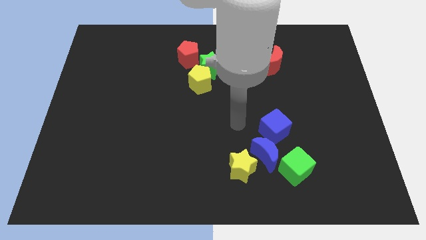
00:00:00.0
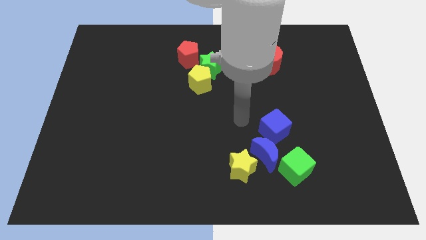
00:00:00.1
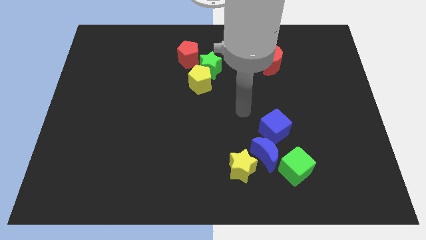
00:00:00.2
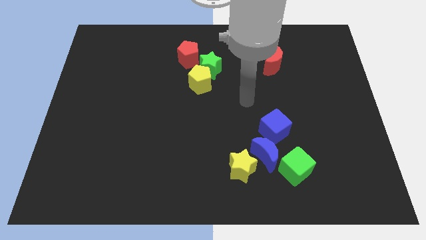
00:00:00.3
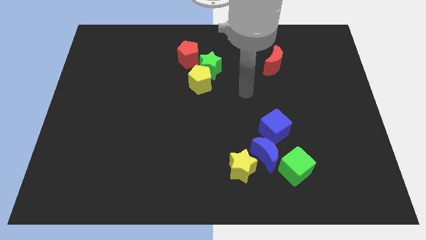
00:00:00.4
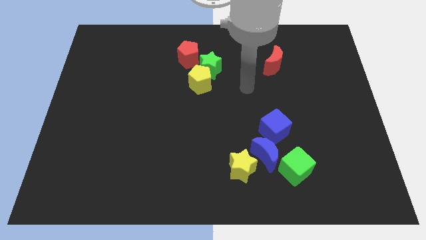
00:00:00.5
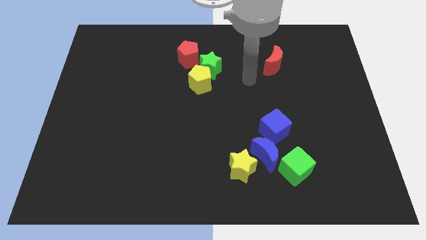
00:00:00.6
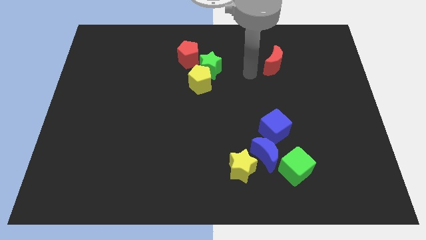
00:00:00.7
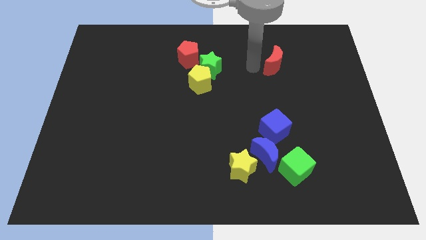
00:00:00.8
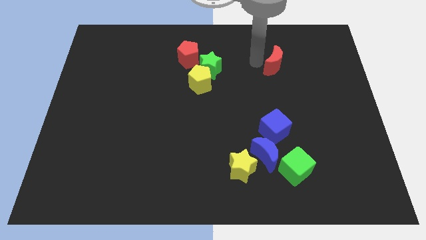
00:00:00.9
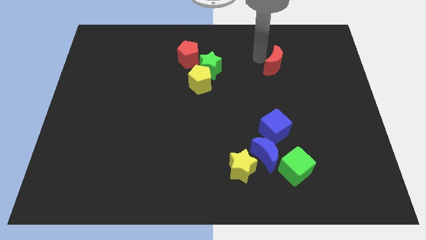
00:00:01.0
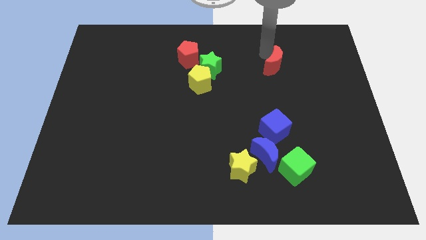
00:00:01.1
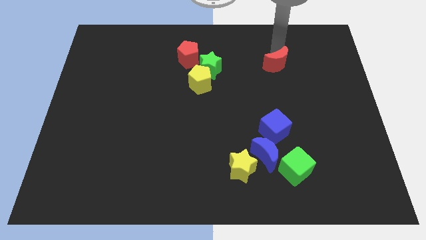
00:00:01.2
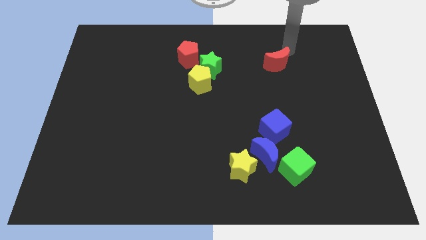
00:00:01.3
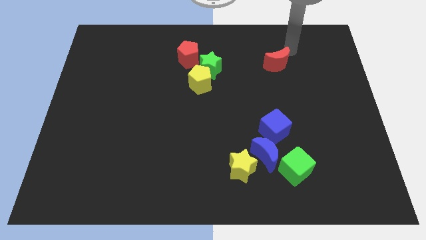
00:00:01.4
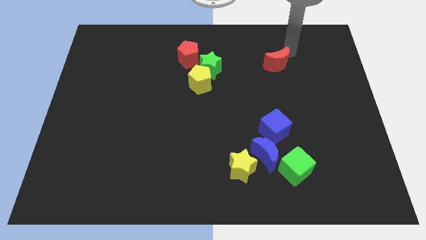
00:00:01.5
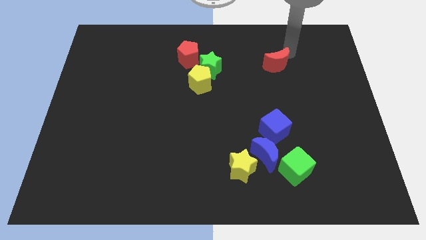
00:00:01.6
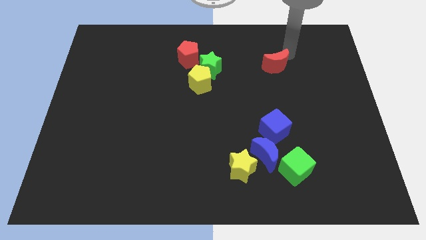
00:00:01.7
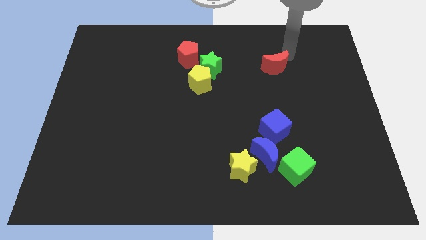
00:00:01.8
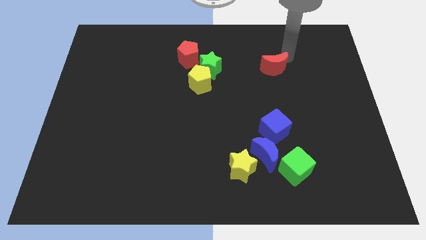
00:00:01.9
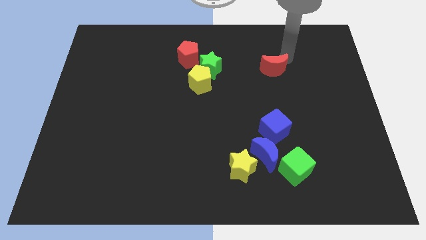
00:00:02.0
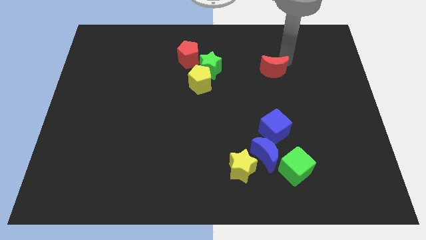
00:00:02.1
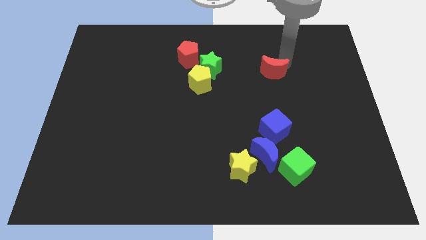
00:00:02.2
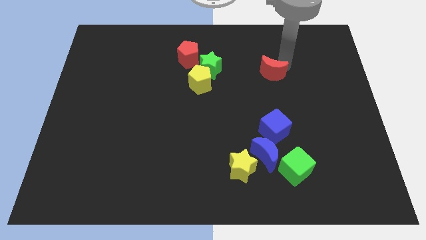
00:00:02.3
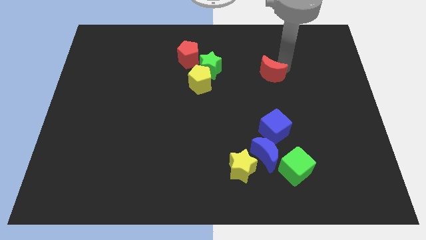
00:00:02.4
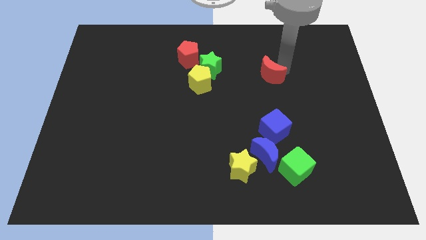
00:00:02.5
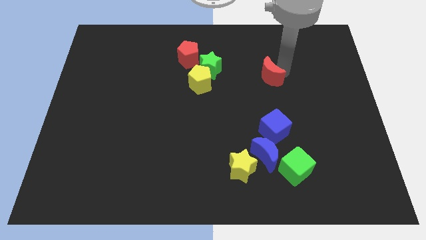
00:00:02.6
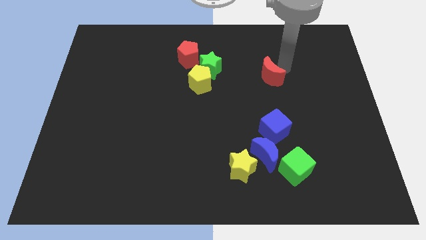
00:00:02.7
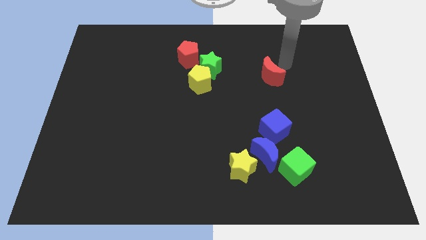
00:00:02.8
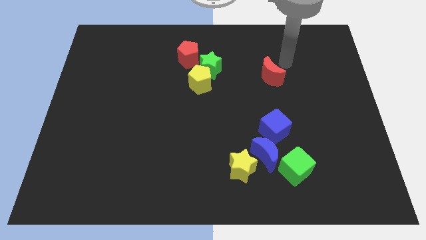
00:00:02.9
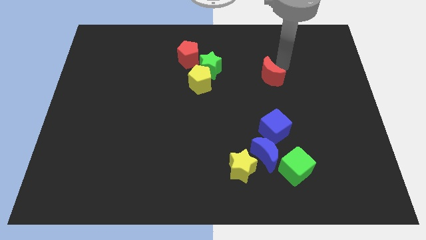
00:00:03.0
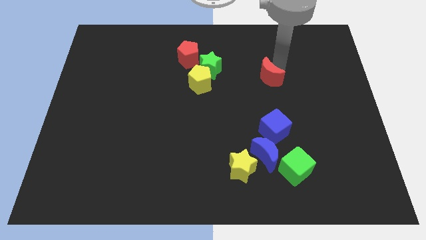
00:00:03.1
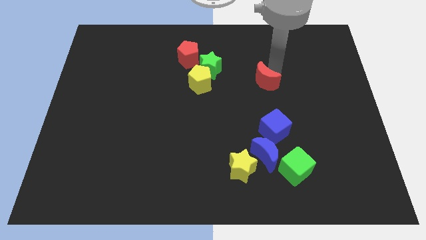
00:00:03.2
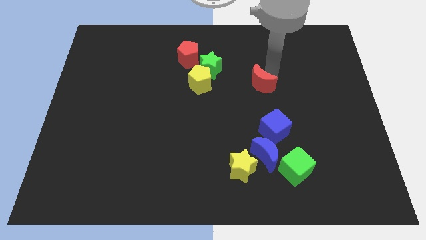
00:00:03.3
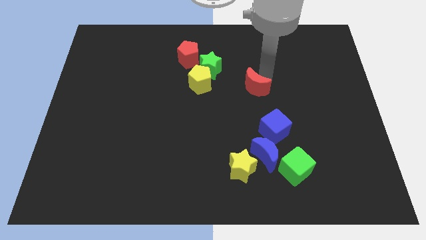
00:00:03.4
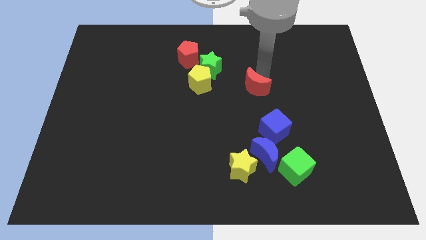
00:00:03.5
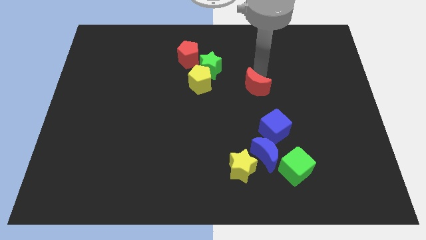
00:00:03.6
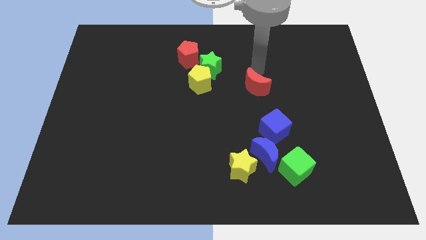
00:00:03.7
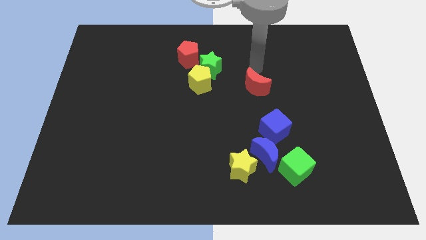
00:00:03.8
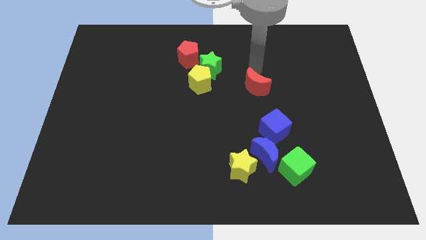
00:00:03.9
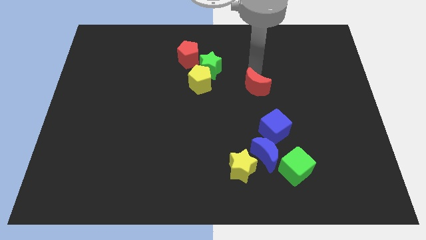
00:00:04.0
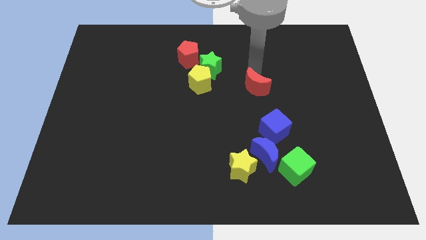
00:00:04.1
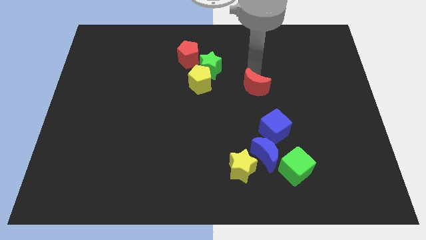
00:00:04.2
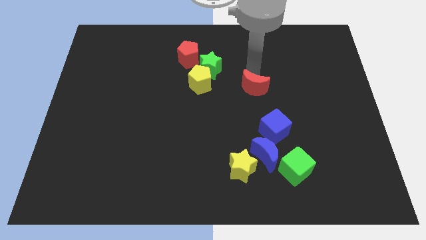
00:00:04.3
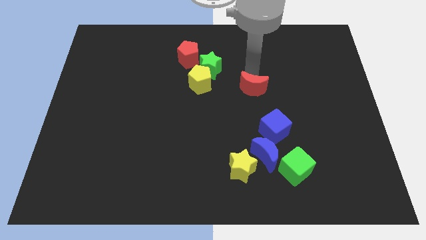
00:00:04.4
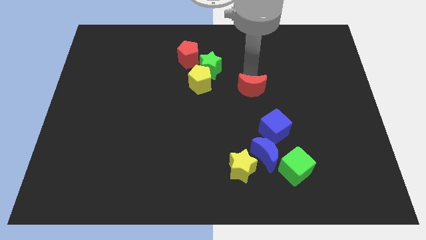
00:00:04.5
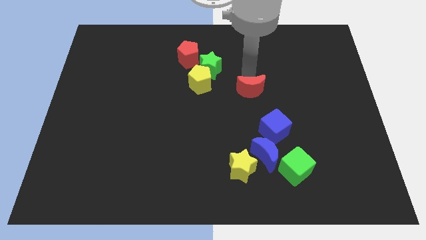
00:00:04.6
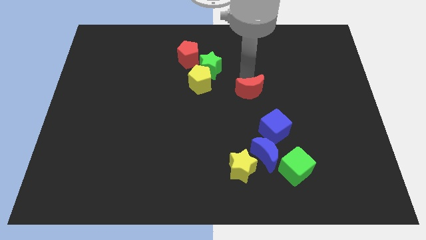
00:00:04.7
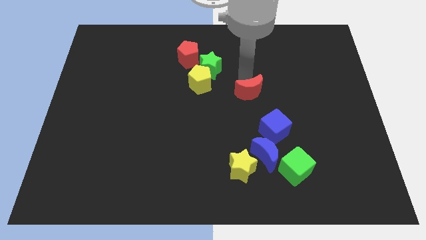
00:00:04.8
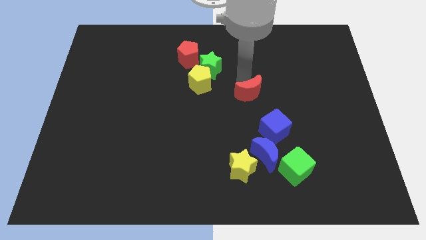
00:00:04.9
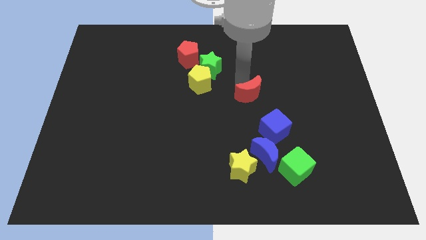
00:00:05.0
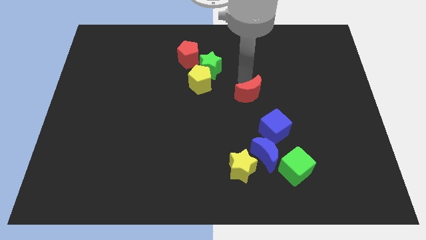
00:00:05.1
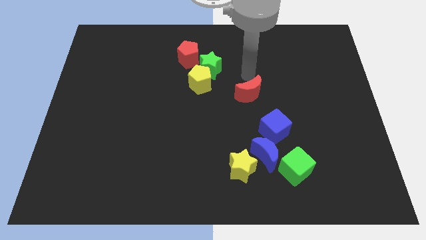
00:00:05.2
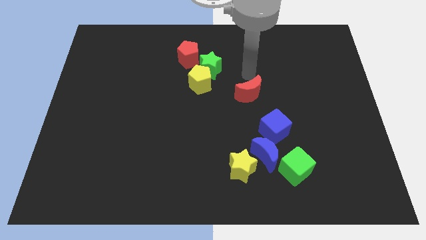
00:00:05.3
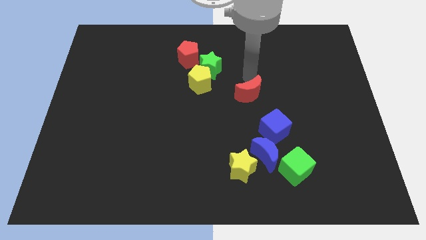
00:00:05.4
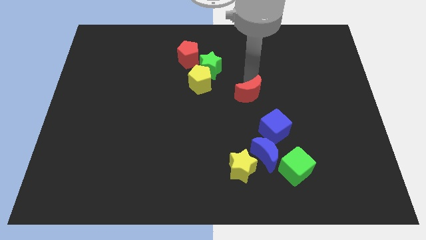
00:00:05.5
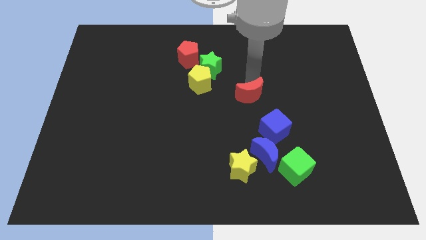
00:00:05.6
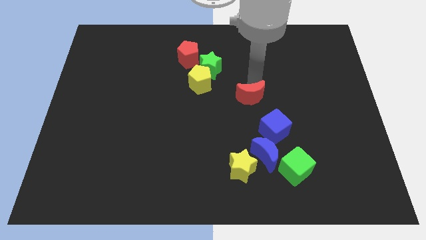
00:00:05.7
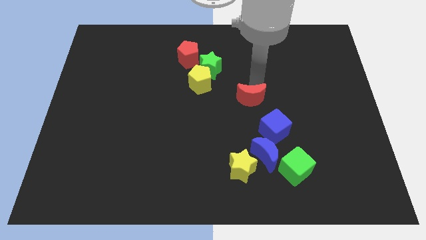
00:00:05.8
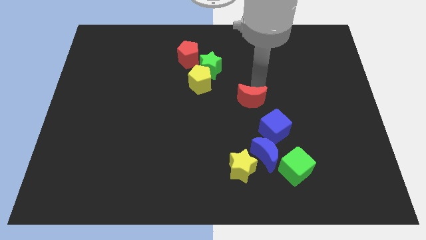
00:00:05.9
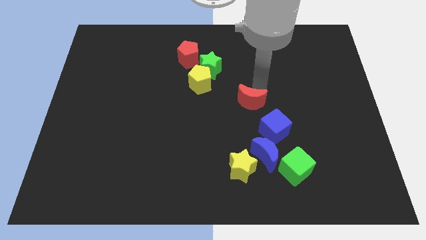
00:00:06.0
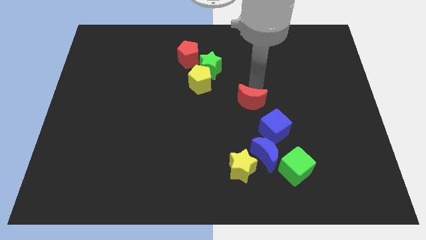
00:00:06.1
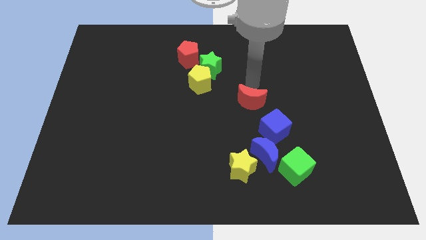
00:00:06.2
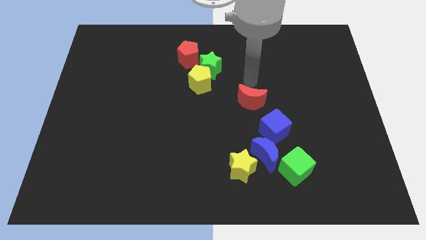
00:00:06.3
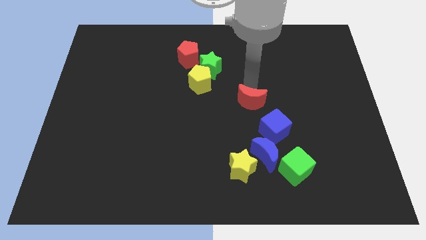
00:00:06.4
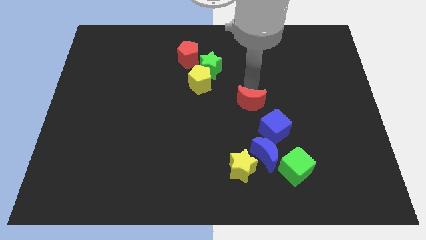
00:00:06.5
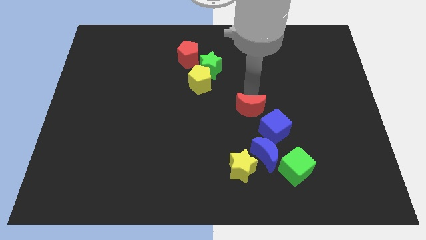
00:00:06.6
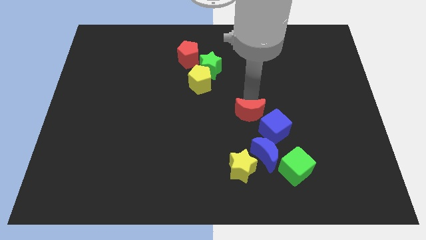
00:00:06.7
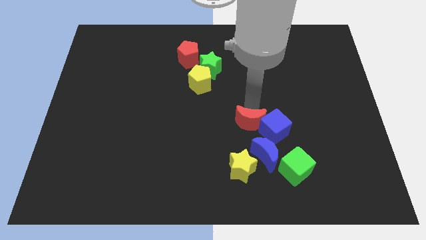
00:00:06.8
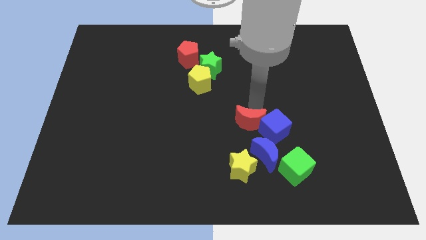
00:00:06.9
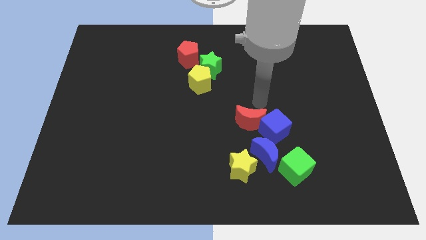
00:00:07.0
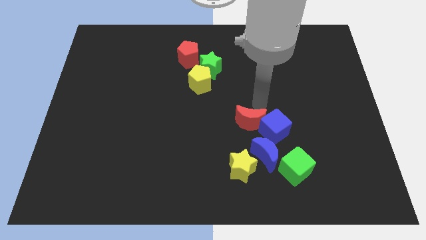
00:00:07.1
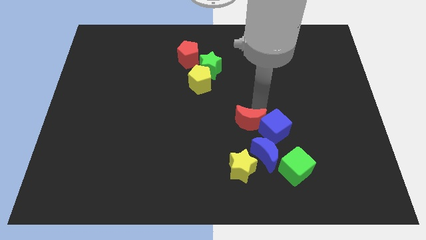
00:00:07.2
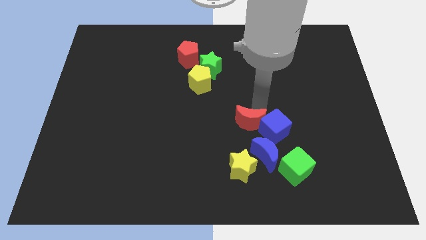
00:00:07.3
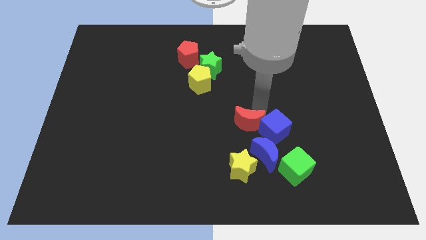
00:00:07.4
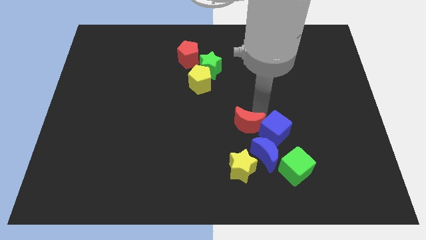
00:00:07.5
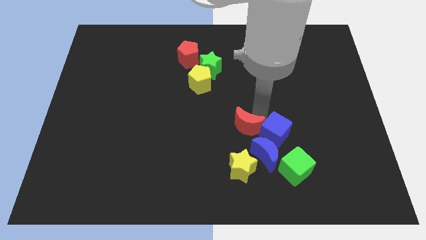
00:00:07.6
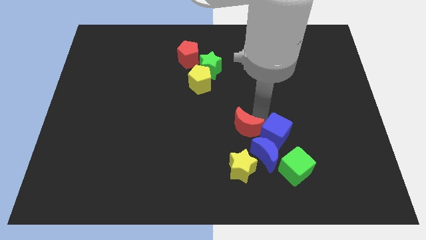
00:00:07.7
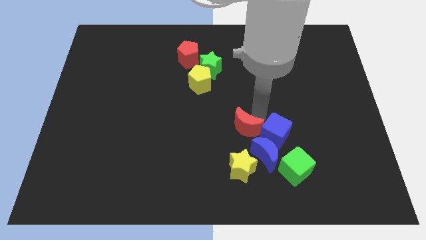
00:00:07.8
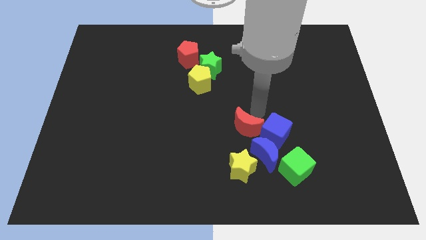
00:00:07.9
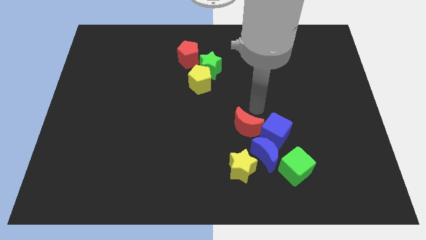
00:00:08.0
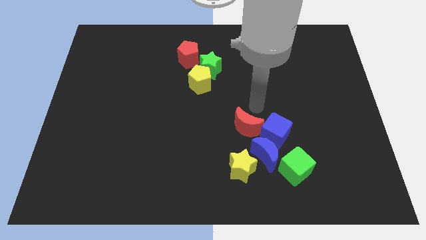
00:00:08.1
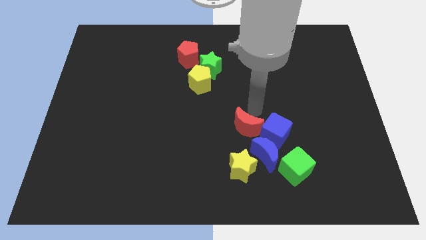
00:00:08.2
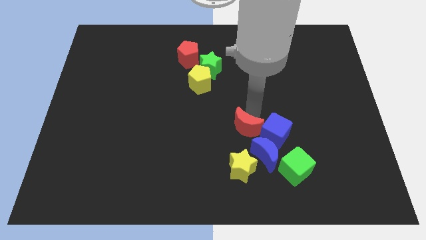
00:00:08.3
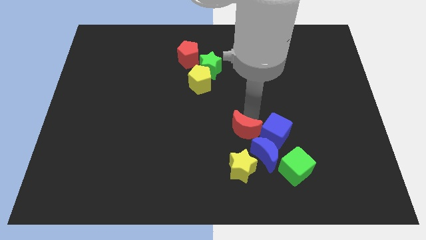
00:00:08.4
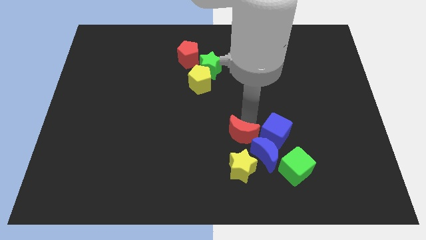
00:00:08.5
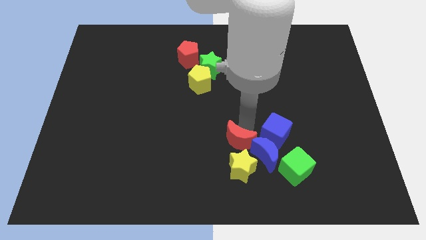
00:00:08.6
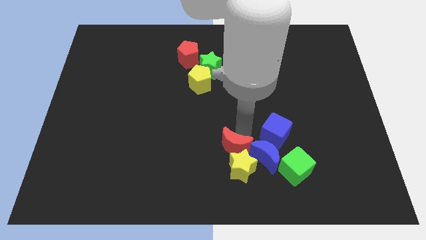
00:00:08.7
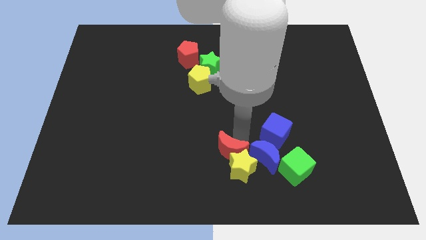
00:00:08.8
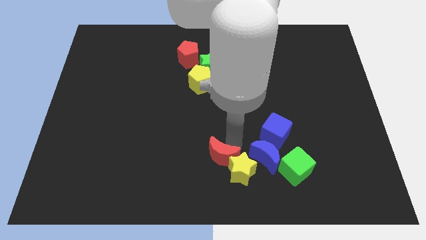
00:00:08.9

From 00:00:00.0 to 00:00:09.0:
slide the red moon to the bottom side
